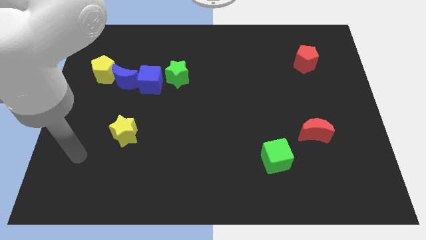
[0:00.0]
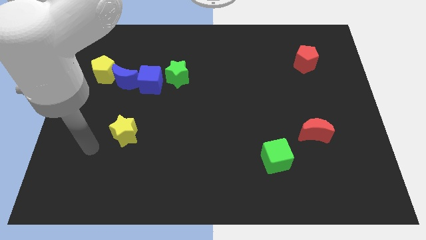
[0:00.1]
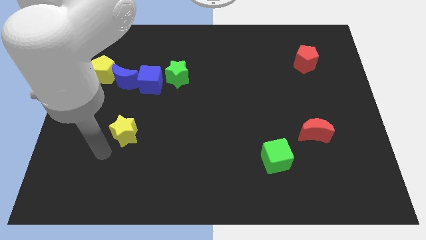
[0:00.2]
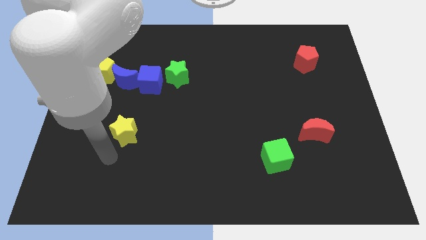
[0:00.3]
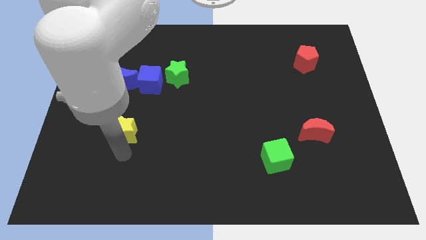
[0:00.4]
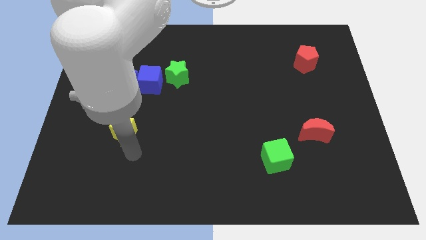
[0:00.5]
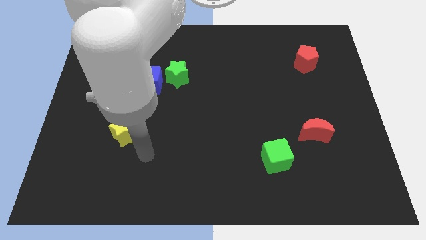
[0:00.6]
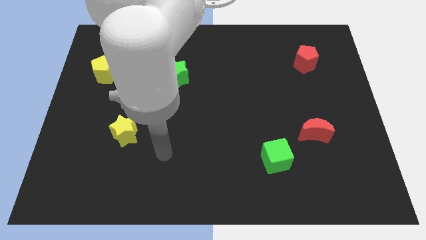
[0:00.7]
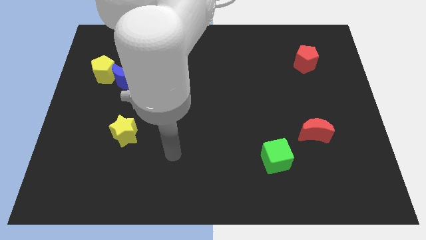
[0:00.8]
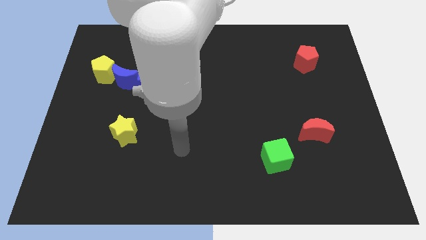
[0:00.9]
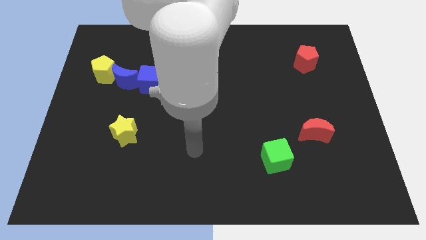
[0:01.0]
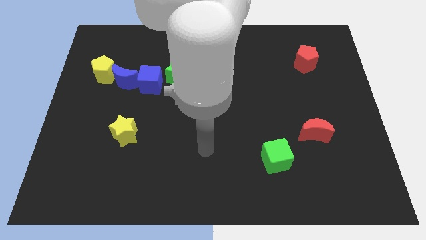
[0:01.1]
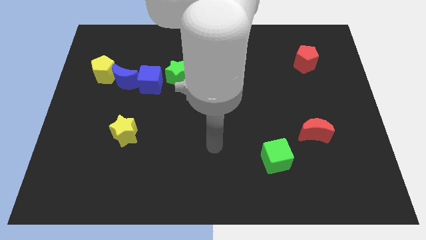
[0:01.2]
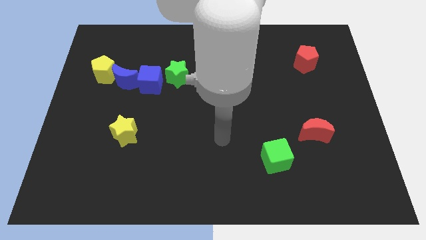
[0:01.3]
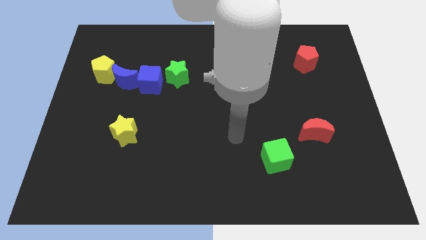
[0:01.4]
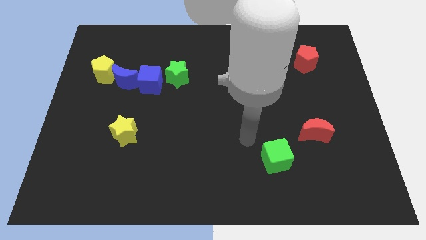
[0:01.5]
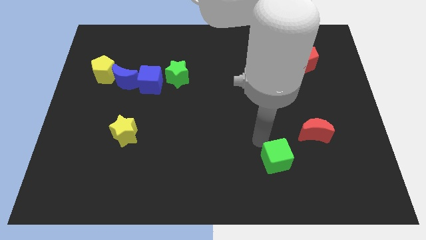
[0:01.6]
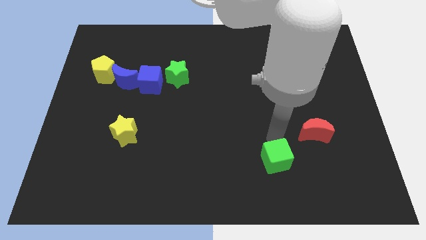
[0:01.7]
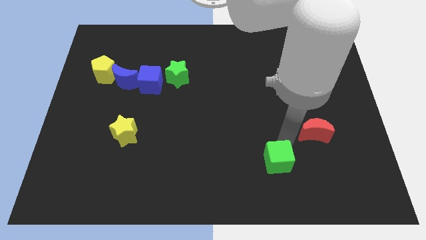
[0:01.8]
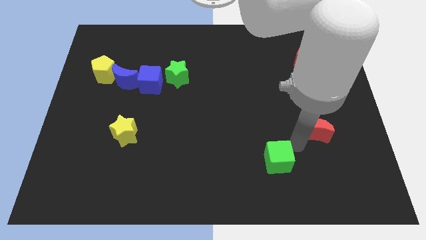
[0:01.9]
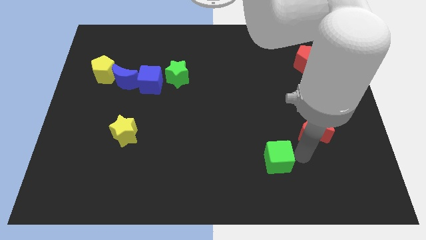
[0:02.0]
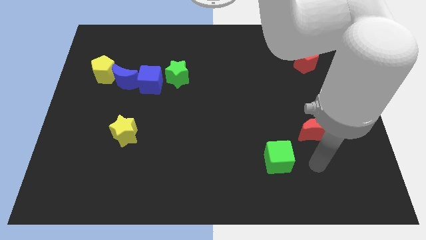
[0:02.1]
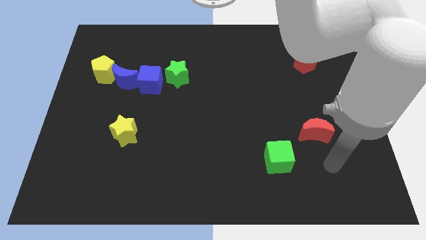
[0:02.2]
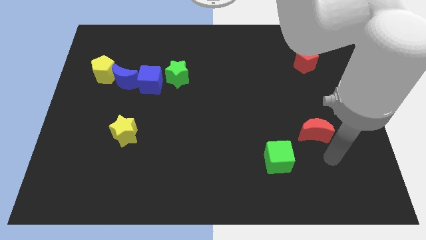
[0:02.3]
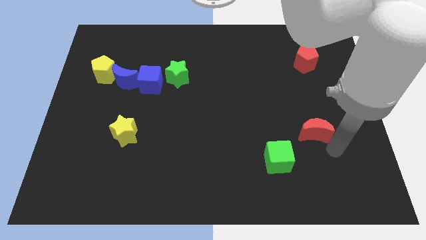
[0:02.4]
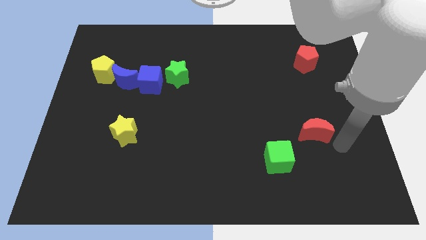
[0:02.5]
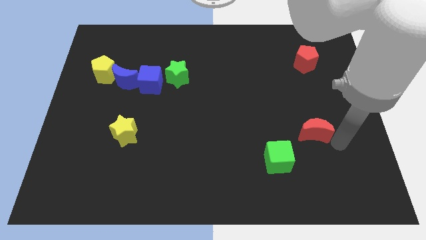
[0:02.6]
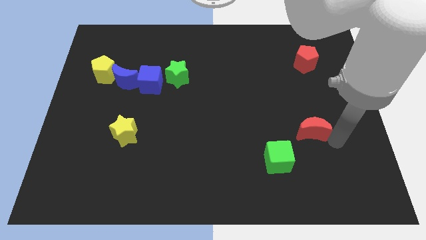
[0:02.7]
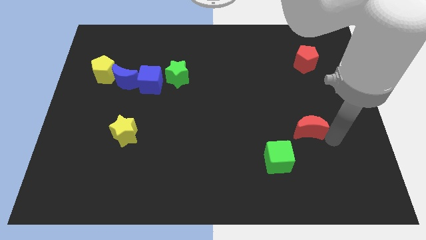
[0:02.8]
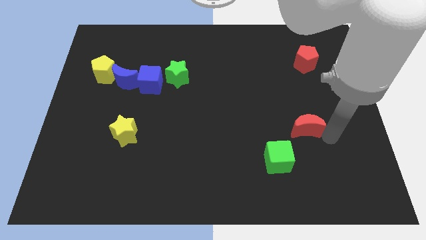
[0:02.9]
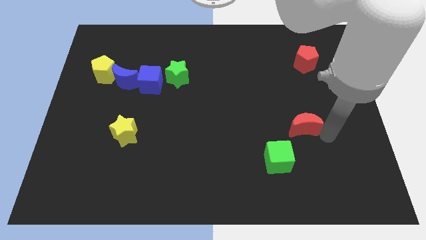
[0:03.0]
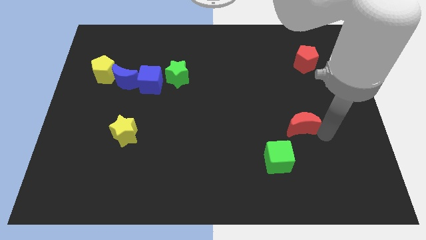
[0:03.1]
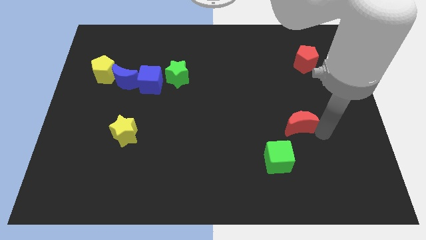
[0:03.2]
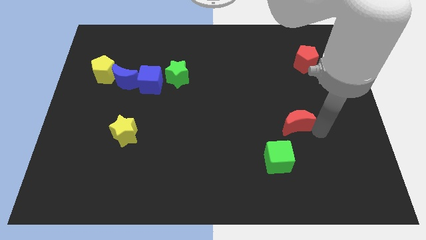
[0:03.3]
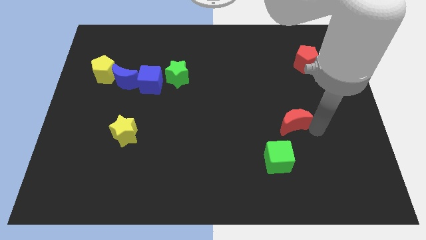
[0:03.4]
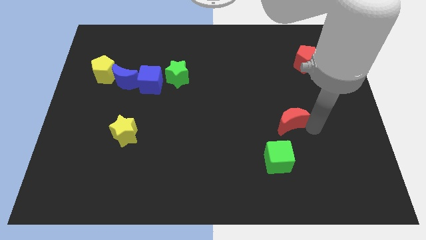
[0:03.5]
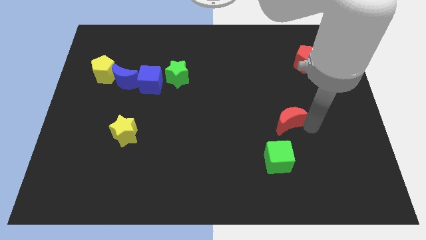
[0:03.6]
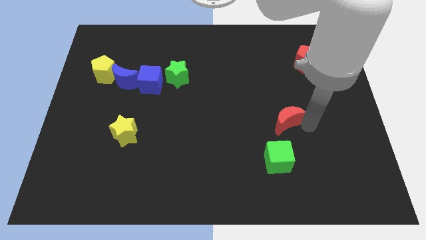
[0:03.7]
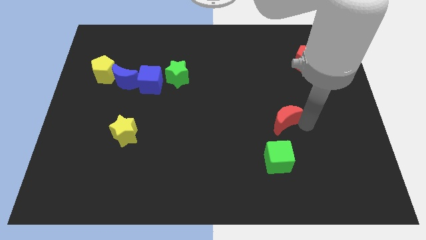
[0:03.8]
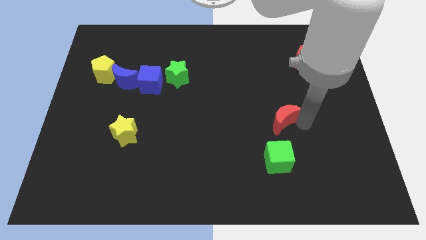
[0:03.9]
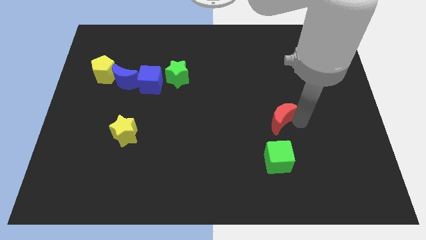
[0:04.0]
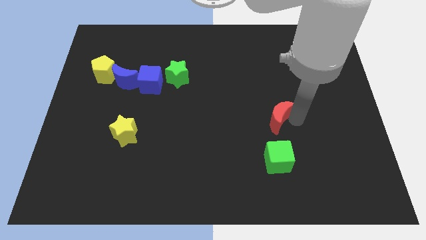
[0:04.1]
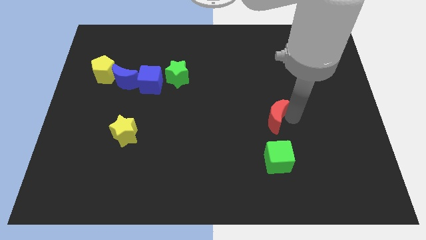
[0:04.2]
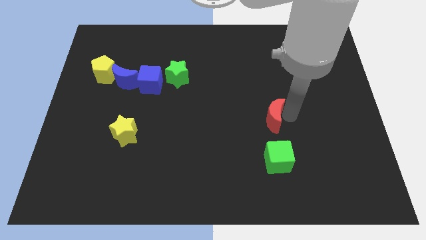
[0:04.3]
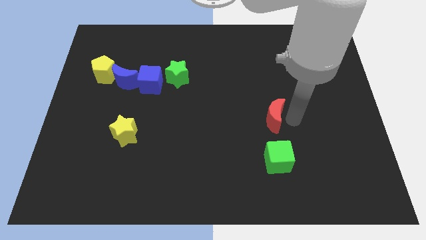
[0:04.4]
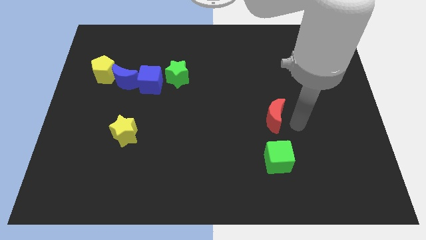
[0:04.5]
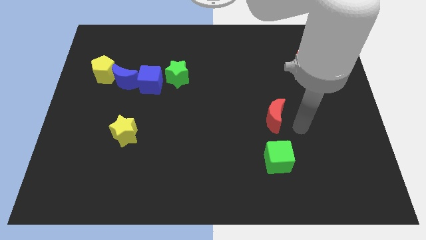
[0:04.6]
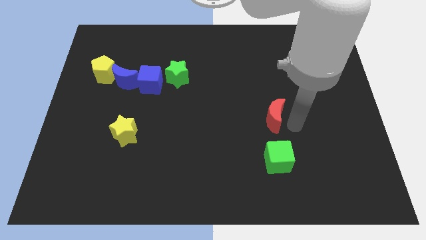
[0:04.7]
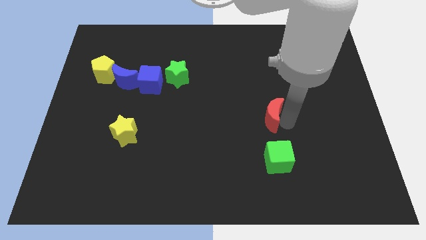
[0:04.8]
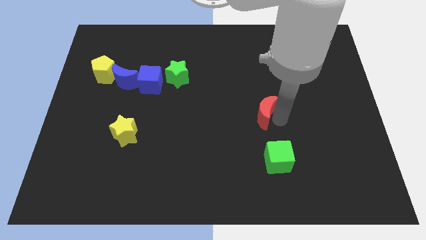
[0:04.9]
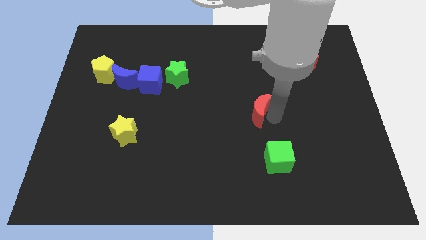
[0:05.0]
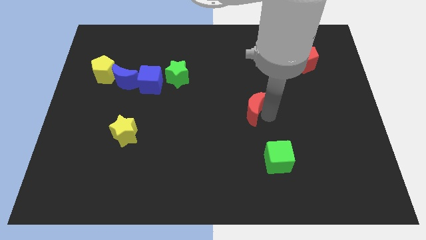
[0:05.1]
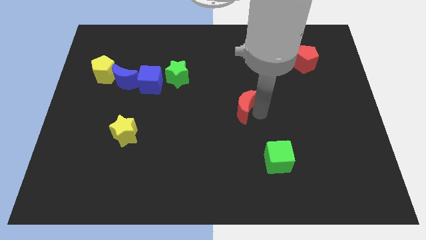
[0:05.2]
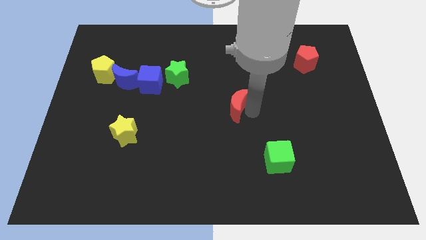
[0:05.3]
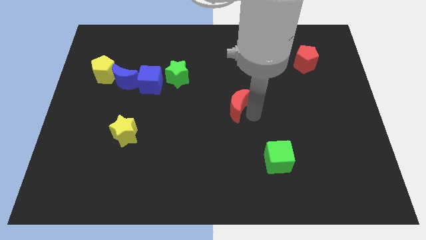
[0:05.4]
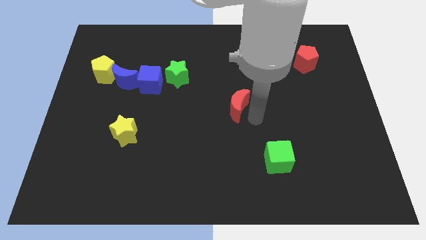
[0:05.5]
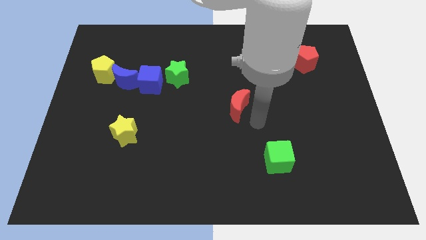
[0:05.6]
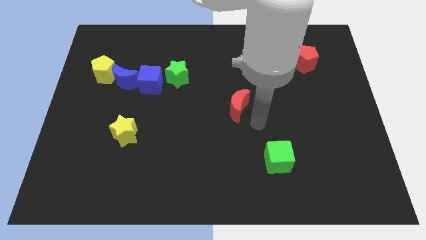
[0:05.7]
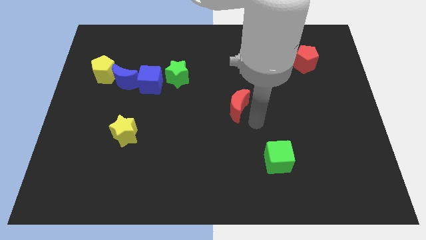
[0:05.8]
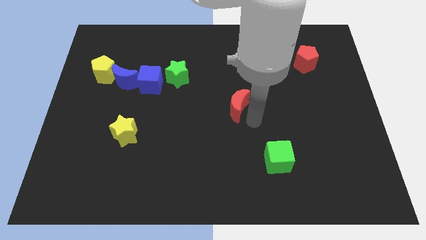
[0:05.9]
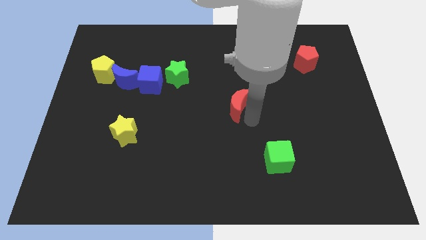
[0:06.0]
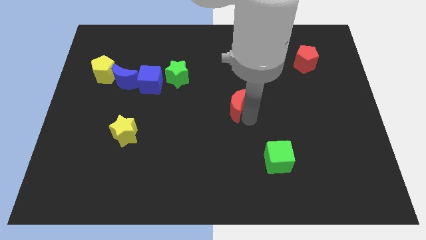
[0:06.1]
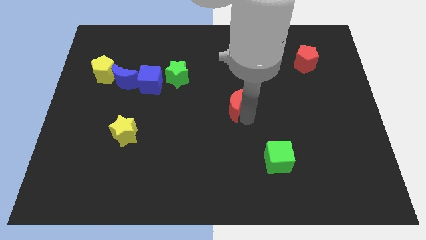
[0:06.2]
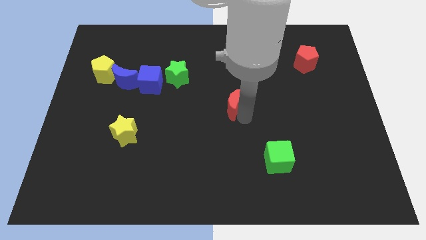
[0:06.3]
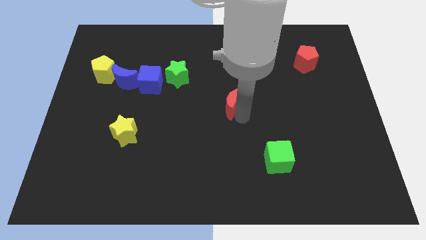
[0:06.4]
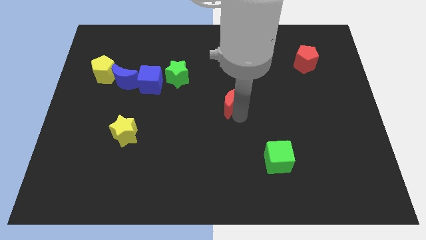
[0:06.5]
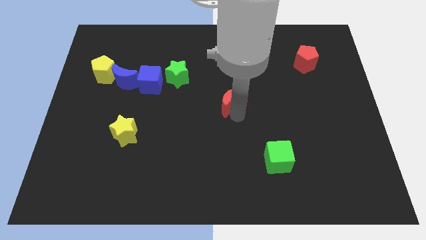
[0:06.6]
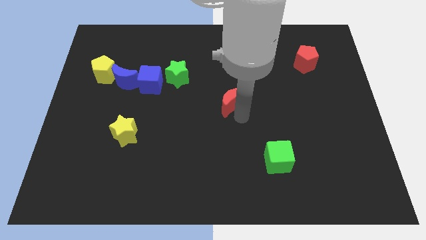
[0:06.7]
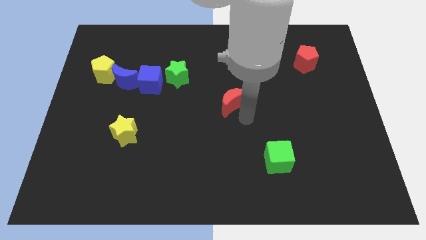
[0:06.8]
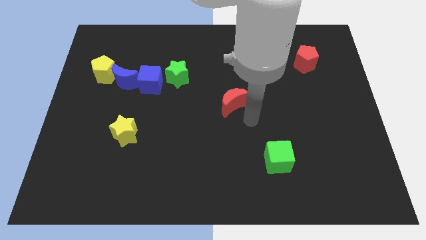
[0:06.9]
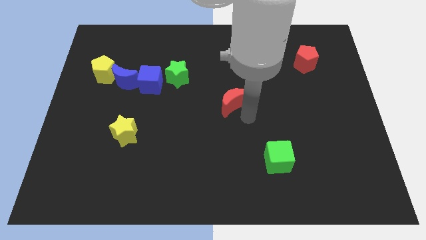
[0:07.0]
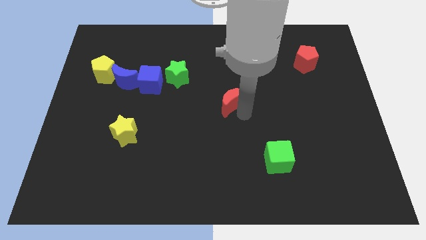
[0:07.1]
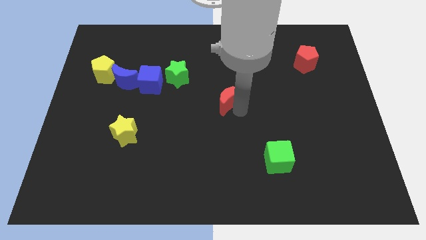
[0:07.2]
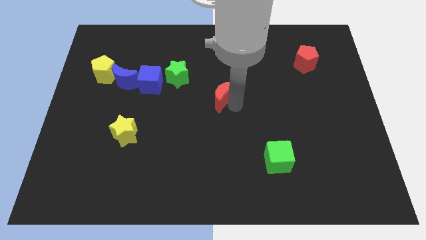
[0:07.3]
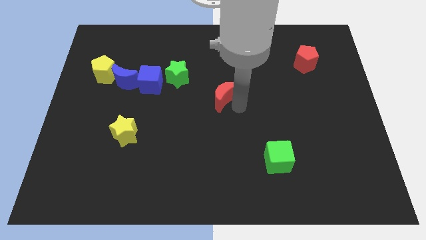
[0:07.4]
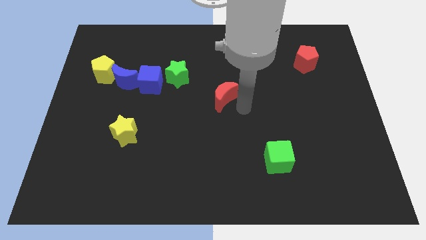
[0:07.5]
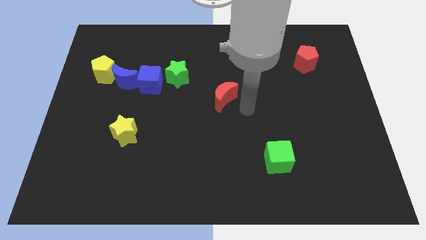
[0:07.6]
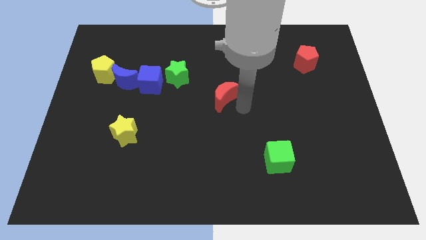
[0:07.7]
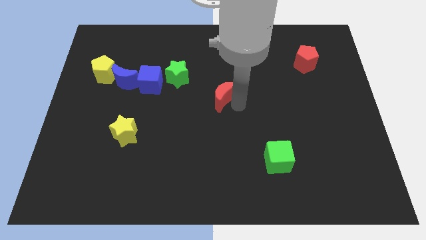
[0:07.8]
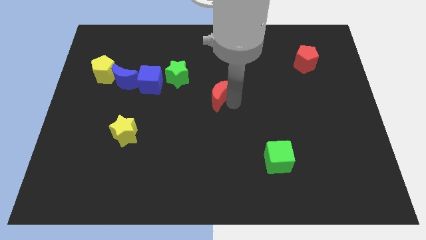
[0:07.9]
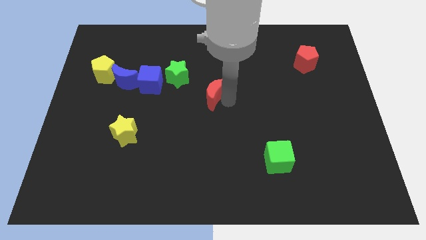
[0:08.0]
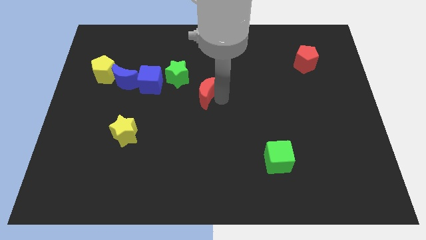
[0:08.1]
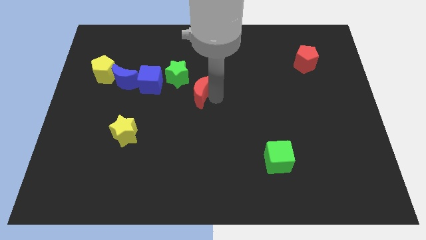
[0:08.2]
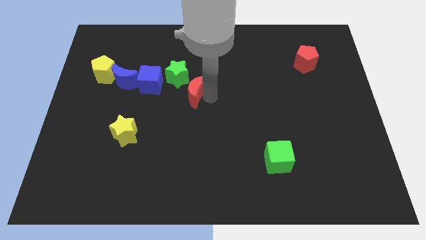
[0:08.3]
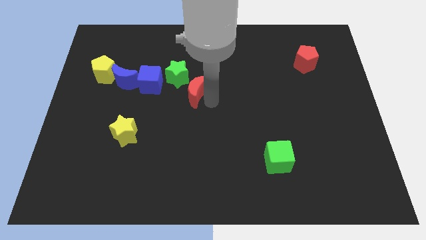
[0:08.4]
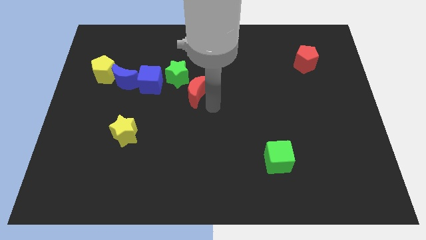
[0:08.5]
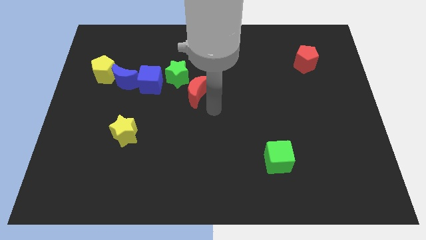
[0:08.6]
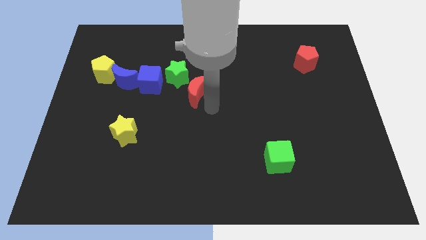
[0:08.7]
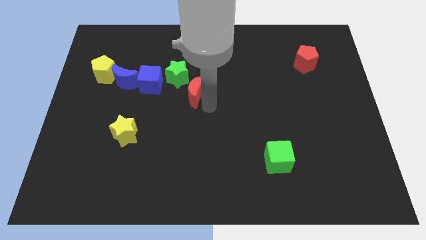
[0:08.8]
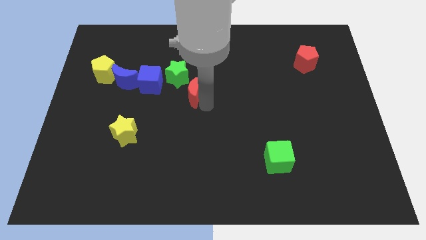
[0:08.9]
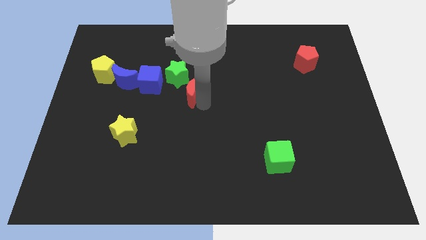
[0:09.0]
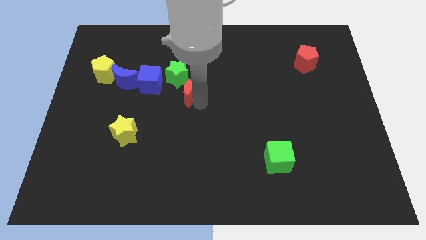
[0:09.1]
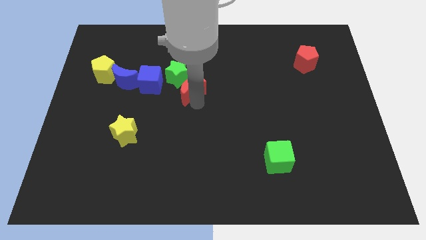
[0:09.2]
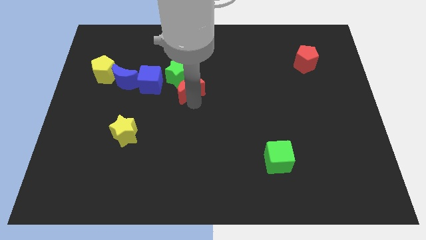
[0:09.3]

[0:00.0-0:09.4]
slide the red moon next to the green star
